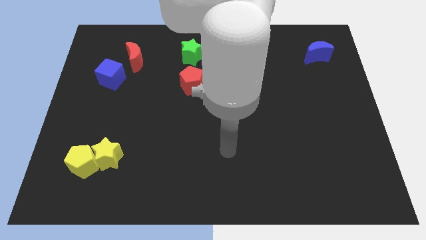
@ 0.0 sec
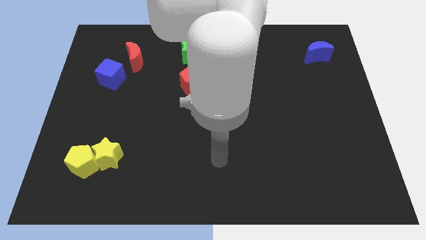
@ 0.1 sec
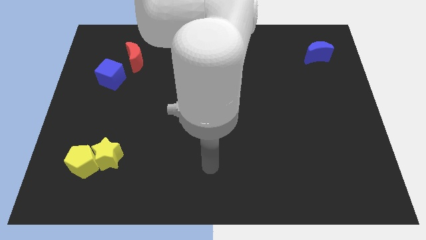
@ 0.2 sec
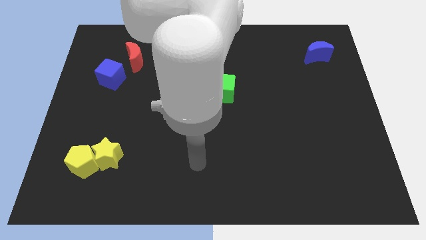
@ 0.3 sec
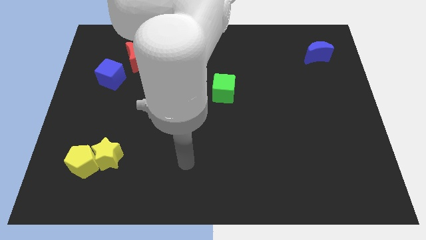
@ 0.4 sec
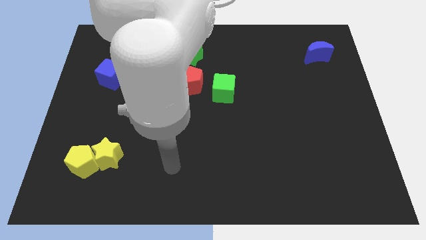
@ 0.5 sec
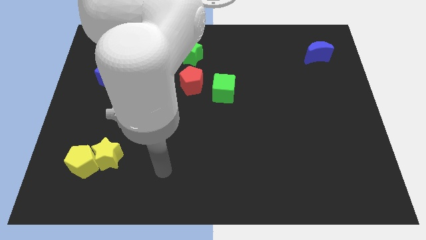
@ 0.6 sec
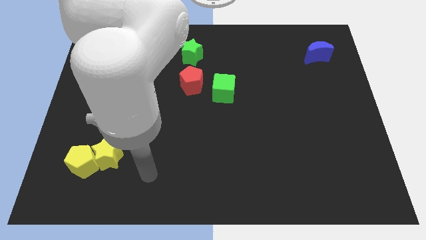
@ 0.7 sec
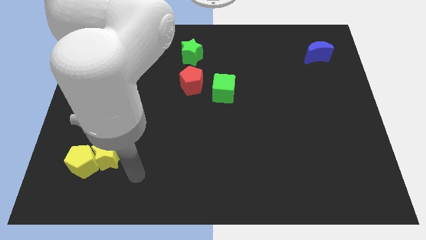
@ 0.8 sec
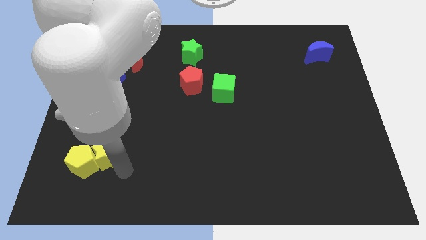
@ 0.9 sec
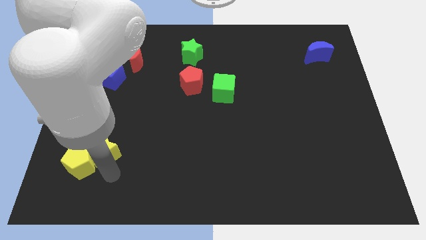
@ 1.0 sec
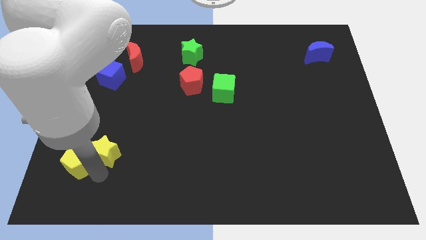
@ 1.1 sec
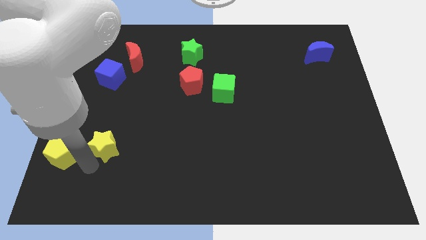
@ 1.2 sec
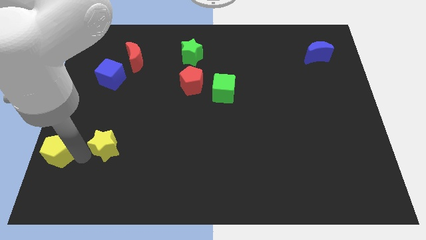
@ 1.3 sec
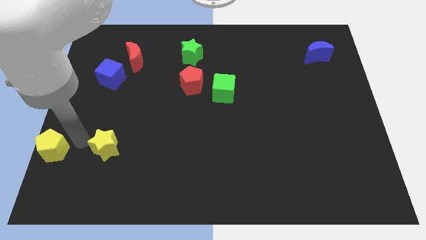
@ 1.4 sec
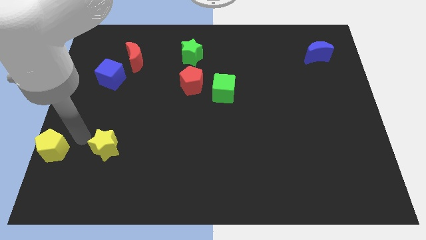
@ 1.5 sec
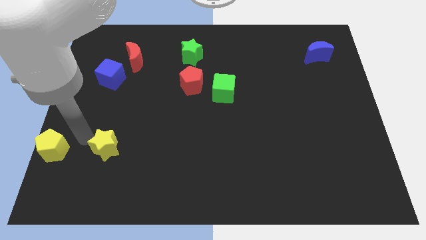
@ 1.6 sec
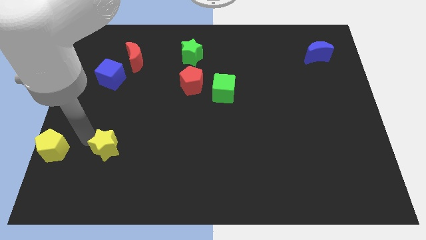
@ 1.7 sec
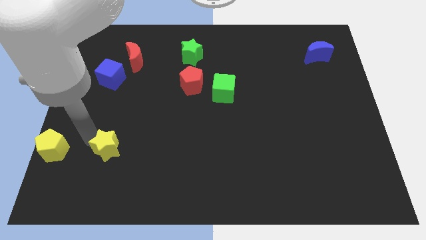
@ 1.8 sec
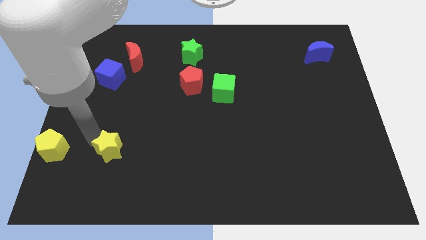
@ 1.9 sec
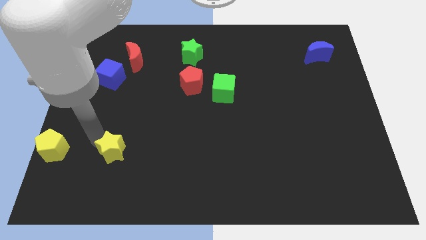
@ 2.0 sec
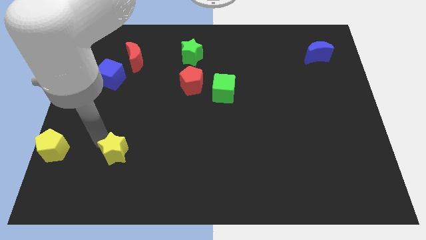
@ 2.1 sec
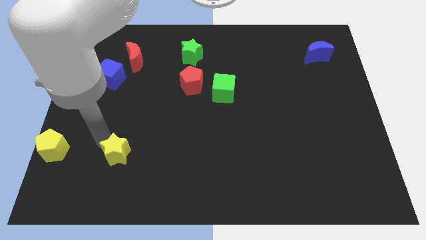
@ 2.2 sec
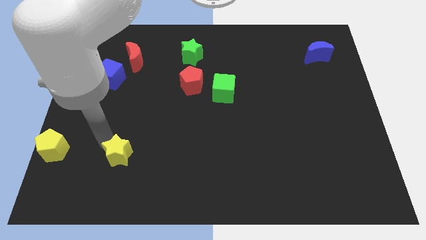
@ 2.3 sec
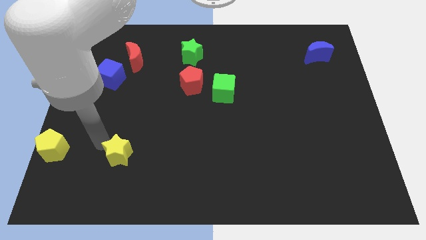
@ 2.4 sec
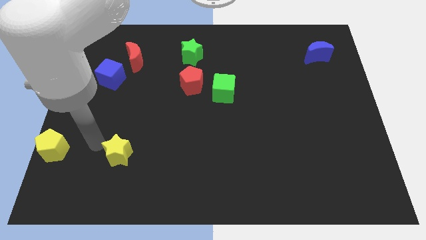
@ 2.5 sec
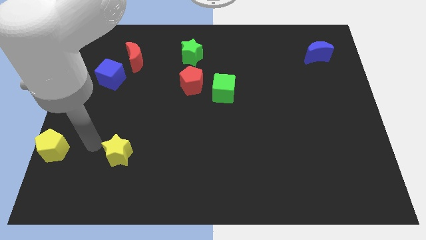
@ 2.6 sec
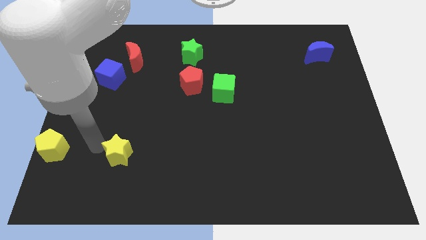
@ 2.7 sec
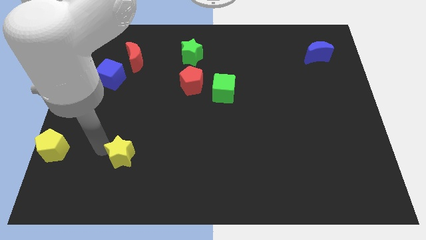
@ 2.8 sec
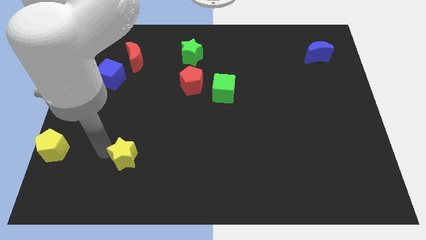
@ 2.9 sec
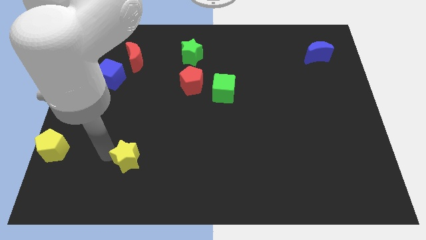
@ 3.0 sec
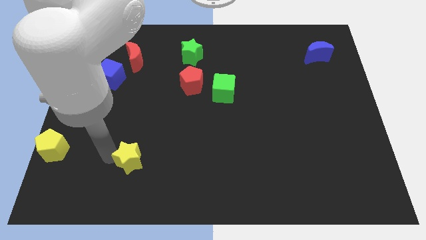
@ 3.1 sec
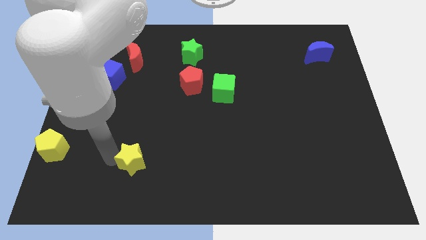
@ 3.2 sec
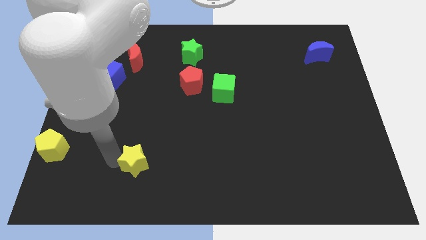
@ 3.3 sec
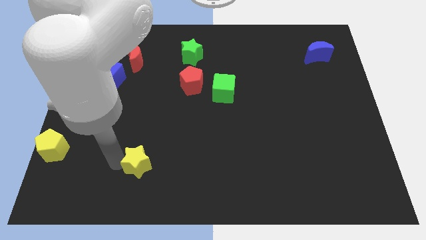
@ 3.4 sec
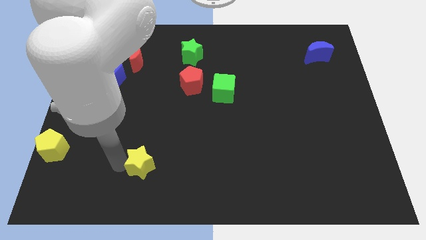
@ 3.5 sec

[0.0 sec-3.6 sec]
slide the yellow star to the right a bit

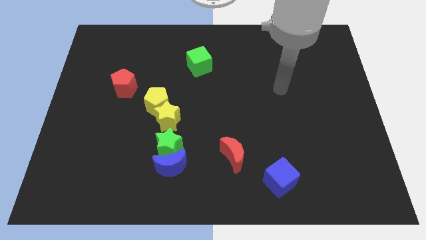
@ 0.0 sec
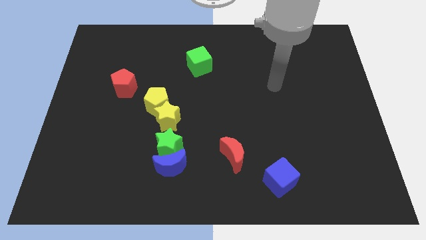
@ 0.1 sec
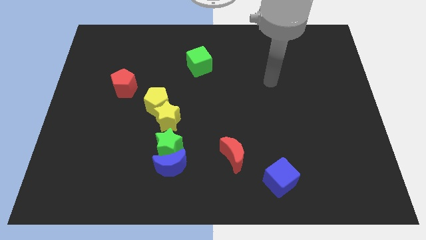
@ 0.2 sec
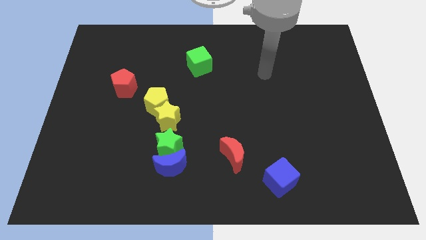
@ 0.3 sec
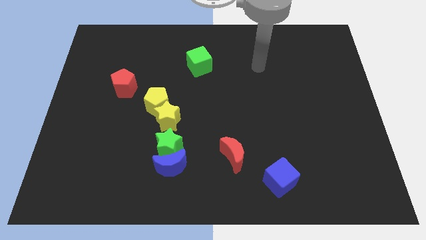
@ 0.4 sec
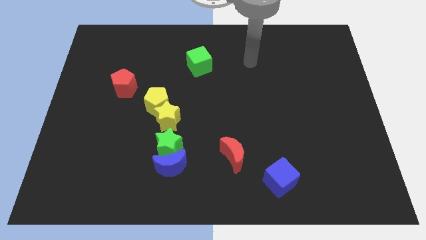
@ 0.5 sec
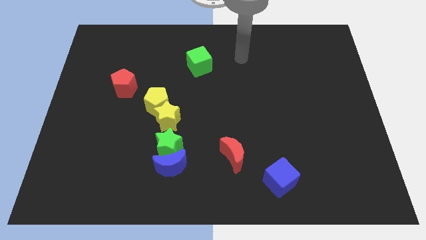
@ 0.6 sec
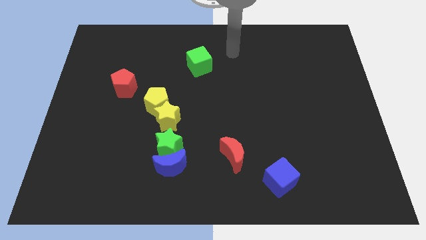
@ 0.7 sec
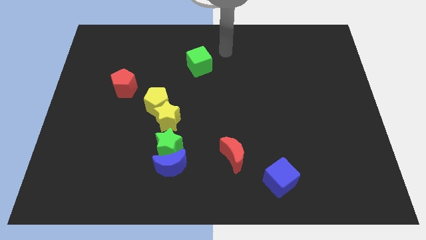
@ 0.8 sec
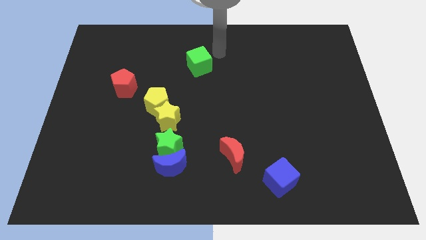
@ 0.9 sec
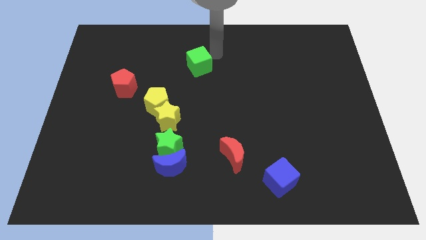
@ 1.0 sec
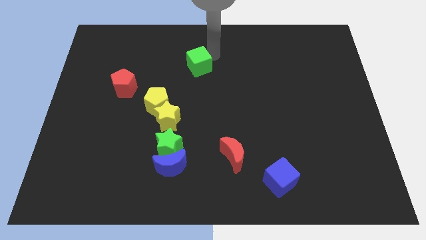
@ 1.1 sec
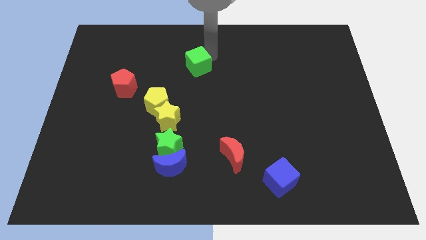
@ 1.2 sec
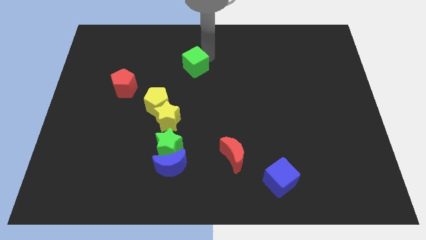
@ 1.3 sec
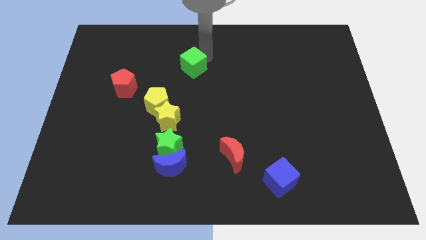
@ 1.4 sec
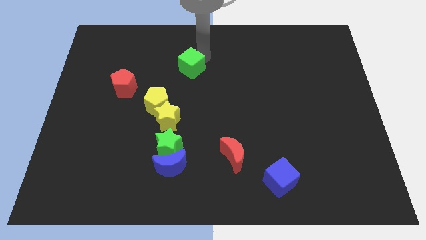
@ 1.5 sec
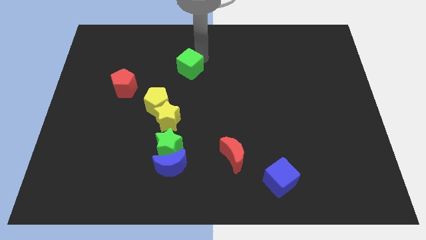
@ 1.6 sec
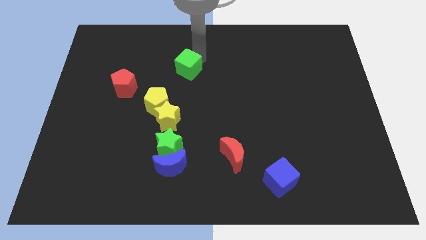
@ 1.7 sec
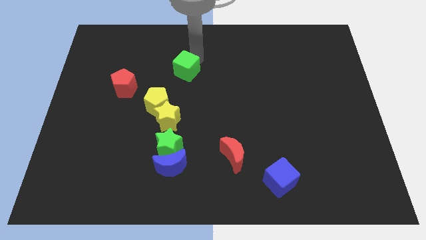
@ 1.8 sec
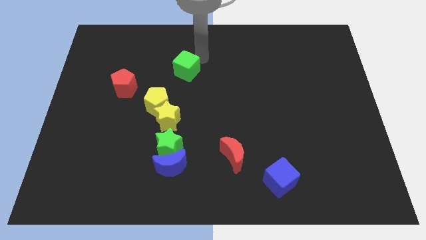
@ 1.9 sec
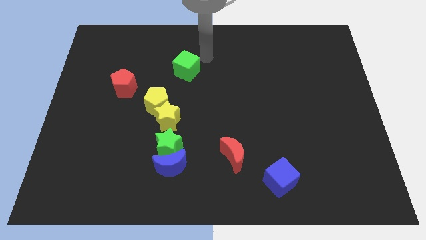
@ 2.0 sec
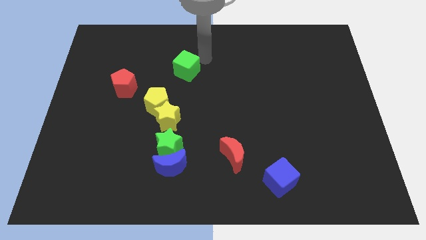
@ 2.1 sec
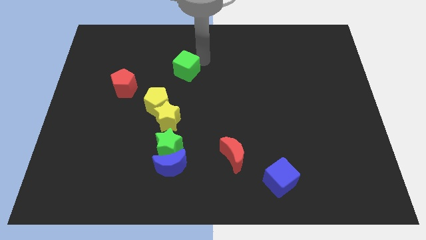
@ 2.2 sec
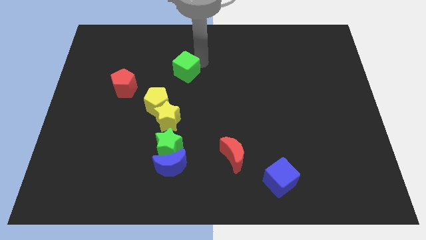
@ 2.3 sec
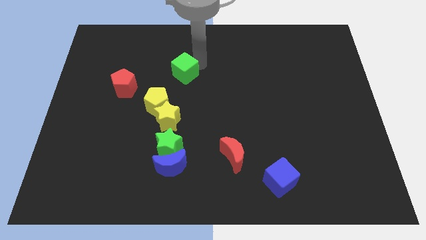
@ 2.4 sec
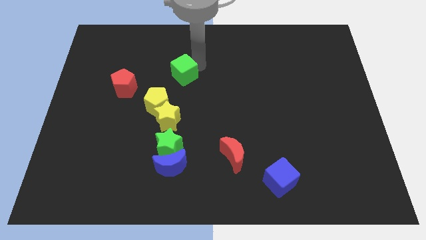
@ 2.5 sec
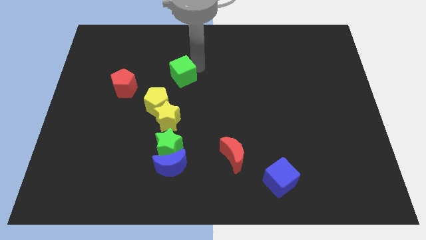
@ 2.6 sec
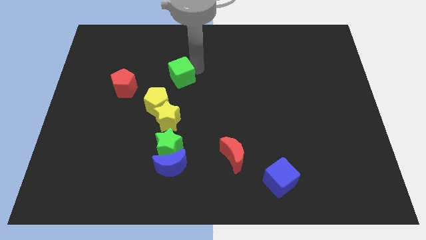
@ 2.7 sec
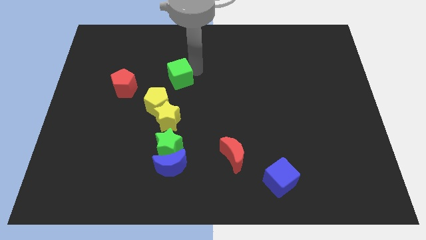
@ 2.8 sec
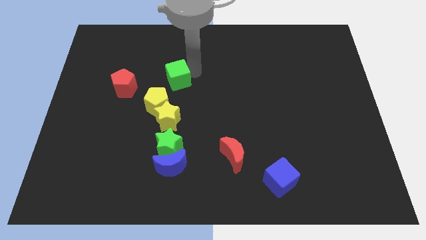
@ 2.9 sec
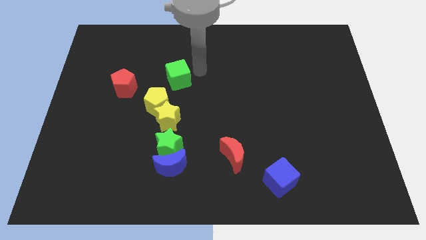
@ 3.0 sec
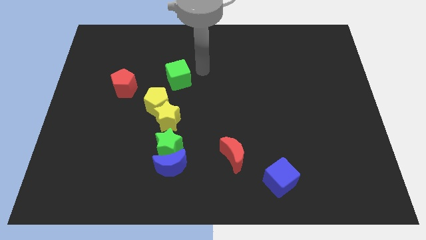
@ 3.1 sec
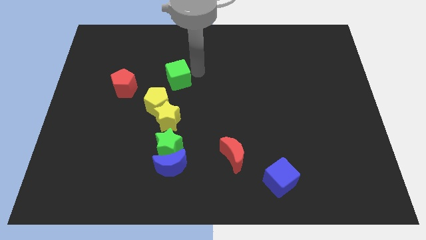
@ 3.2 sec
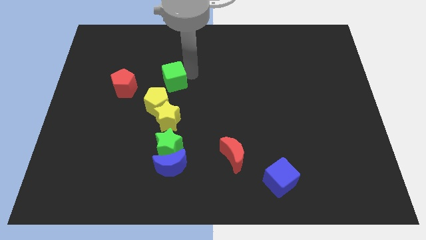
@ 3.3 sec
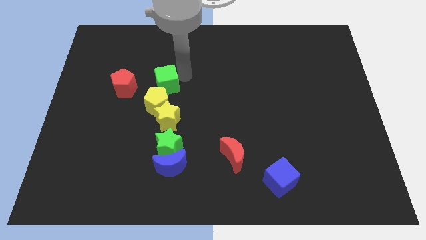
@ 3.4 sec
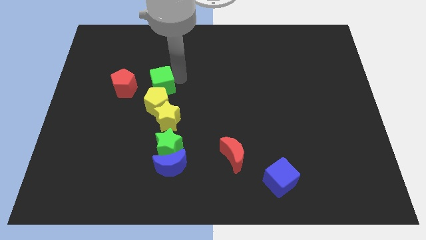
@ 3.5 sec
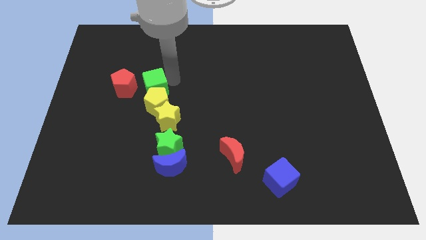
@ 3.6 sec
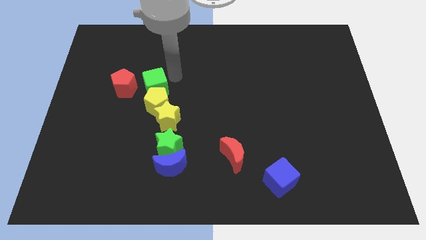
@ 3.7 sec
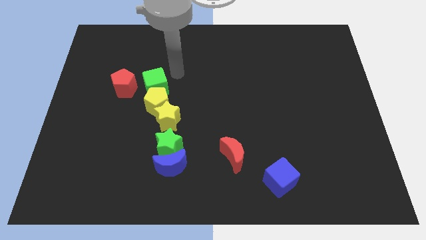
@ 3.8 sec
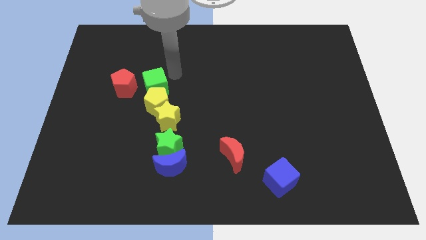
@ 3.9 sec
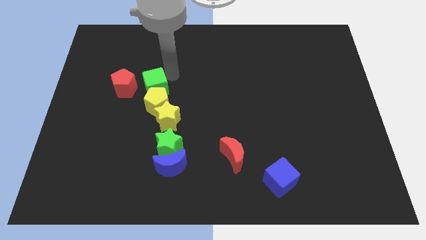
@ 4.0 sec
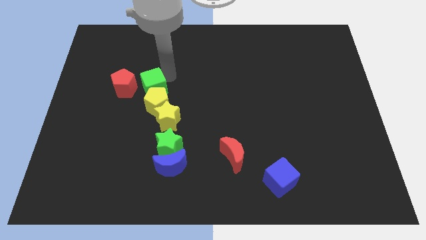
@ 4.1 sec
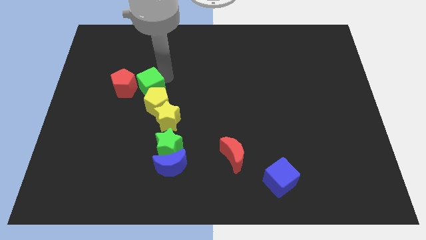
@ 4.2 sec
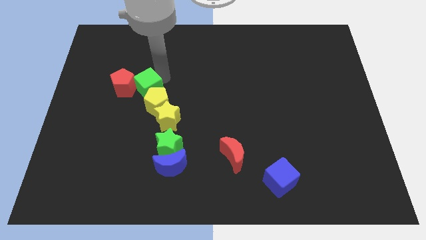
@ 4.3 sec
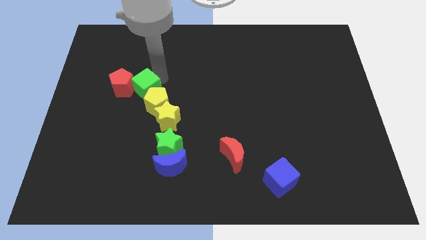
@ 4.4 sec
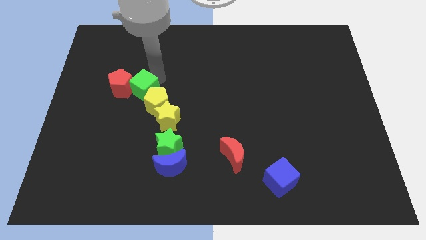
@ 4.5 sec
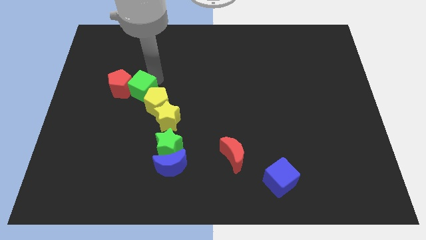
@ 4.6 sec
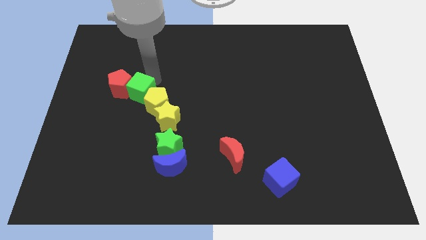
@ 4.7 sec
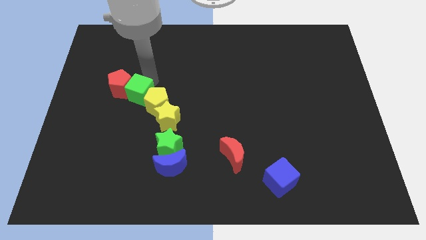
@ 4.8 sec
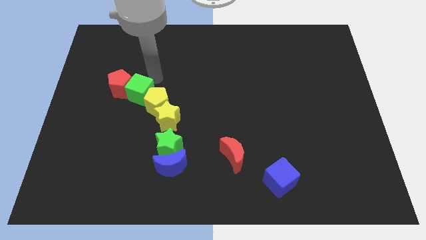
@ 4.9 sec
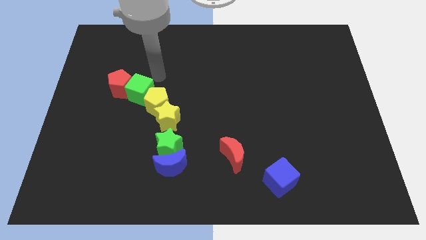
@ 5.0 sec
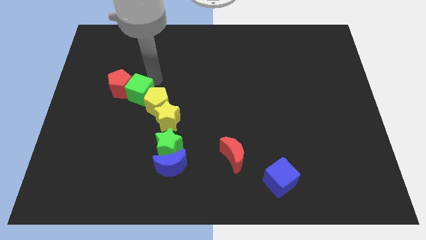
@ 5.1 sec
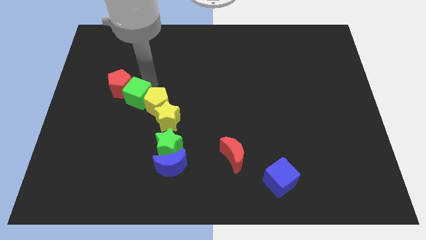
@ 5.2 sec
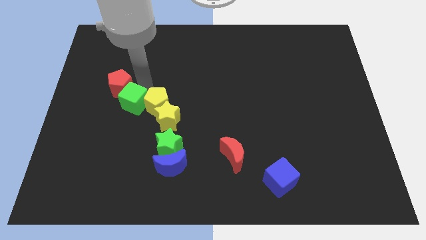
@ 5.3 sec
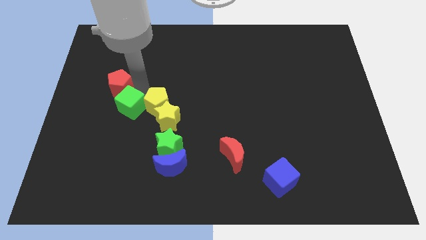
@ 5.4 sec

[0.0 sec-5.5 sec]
push the green cube diagonally downwards and left
